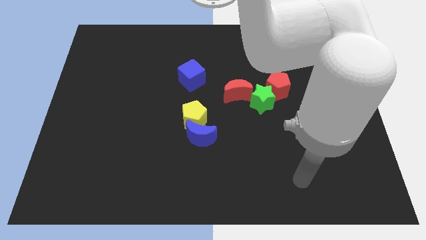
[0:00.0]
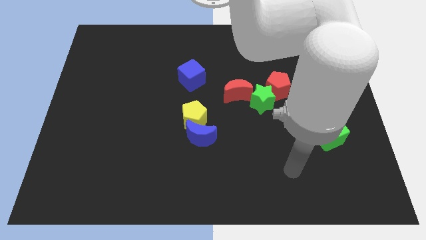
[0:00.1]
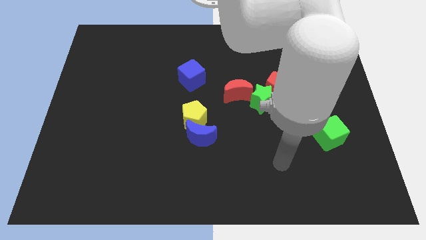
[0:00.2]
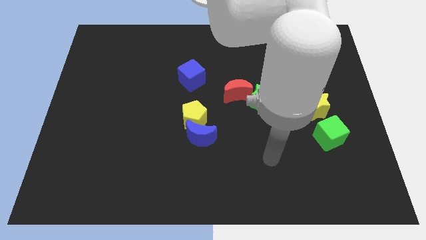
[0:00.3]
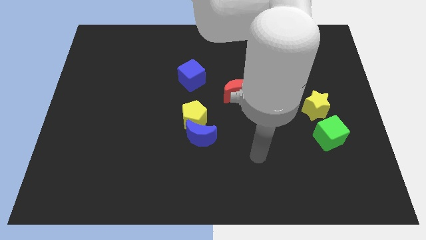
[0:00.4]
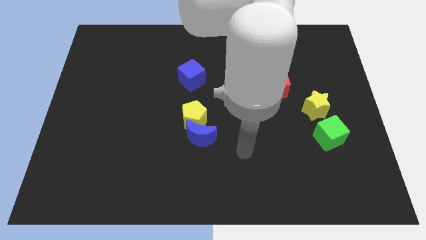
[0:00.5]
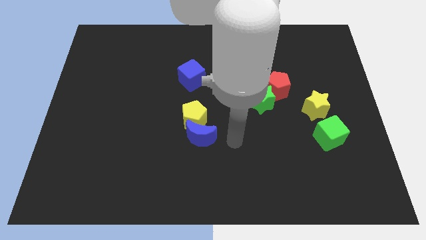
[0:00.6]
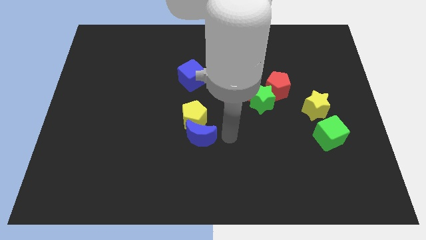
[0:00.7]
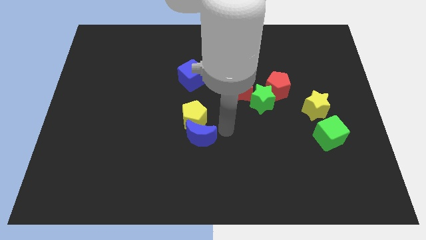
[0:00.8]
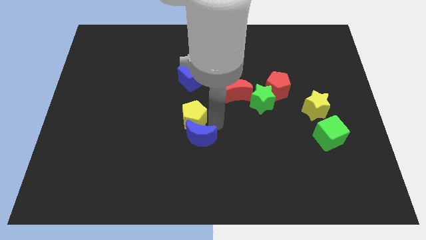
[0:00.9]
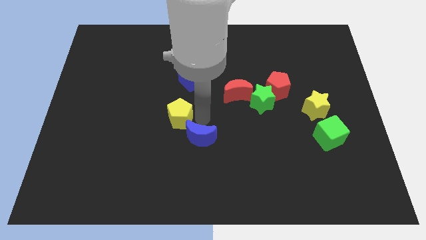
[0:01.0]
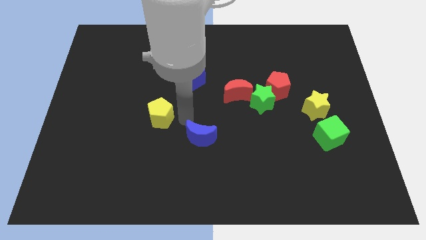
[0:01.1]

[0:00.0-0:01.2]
separate the blue moon from the yellow pentagon

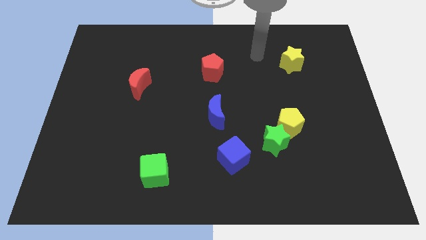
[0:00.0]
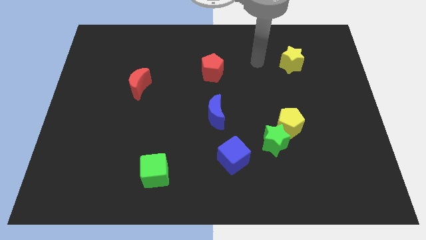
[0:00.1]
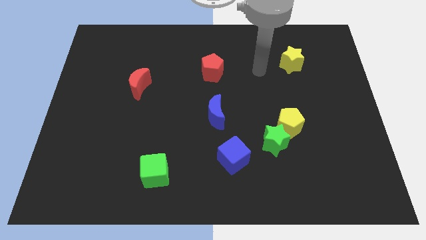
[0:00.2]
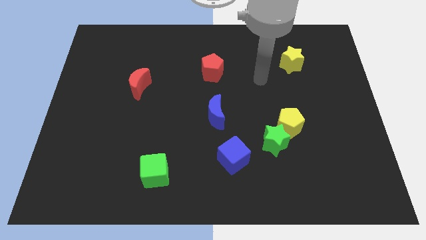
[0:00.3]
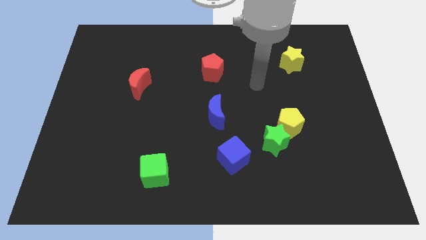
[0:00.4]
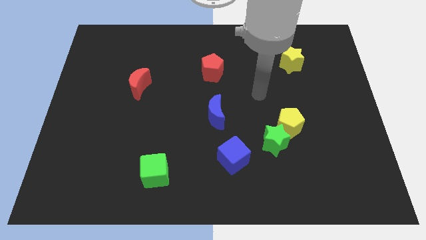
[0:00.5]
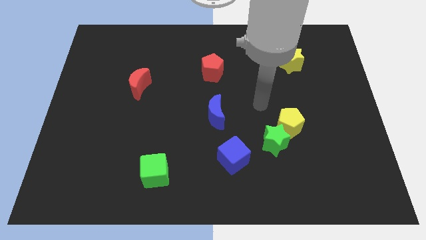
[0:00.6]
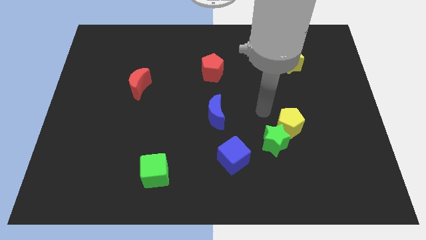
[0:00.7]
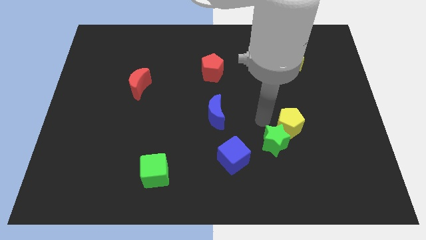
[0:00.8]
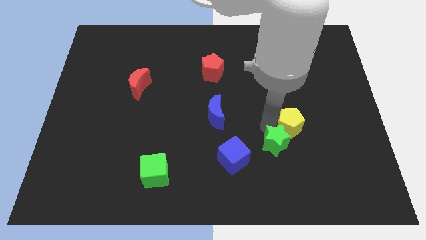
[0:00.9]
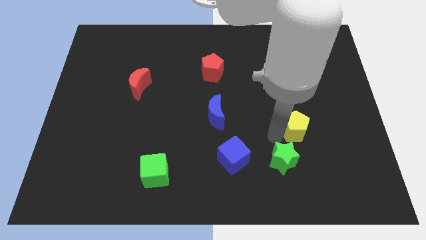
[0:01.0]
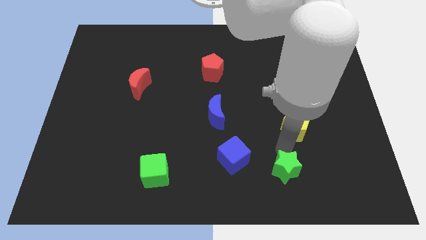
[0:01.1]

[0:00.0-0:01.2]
move the yellow pentagon away from the green star

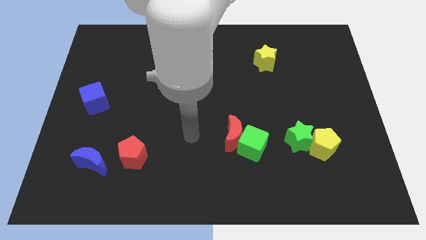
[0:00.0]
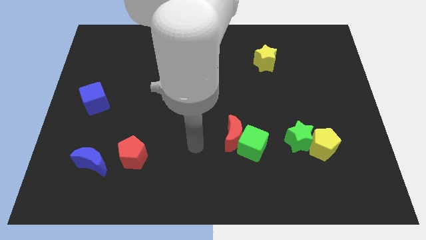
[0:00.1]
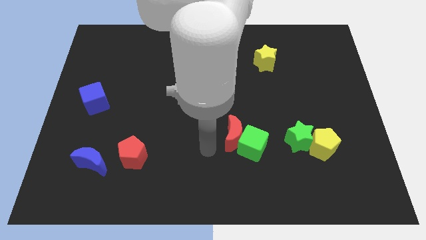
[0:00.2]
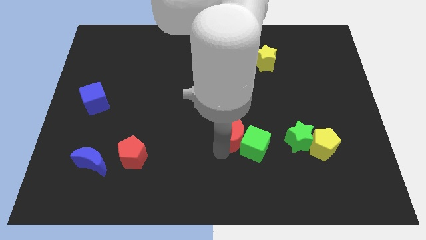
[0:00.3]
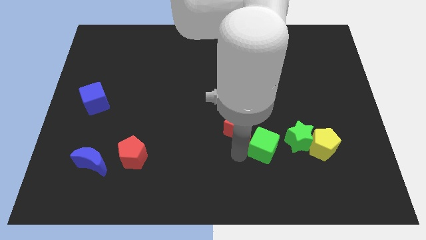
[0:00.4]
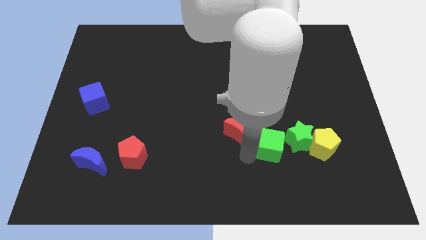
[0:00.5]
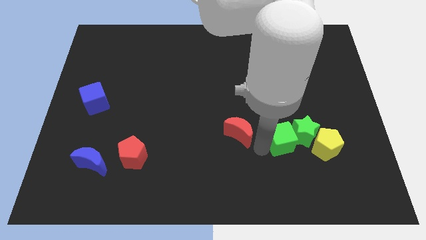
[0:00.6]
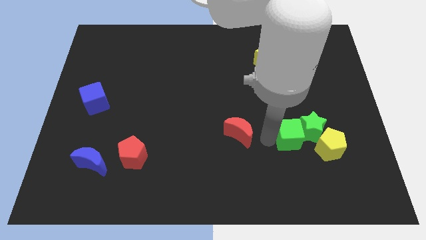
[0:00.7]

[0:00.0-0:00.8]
move the red moon away from the green cube

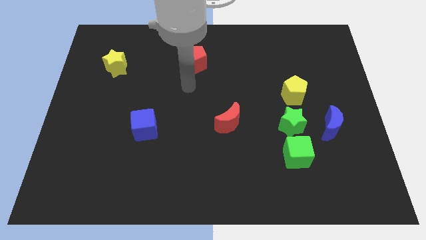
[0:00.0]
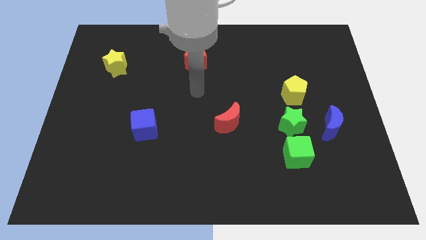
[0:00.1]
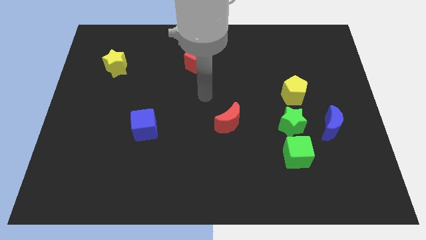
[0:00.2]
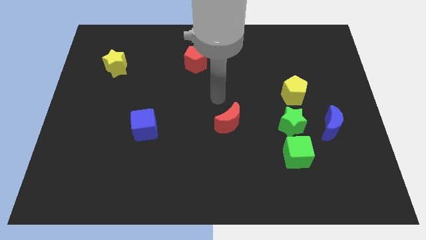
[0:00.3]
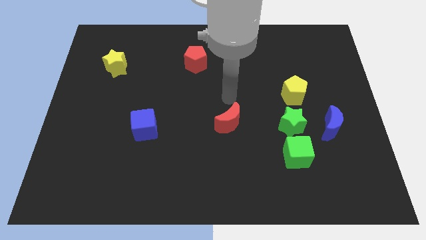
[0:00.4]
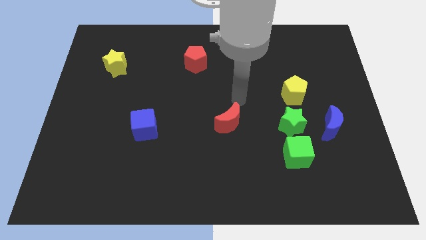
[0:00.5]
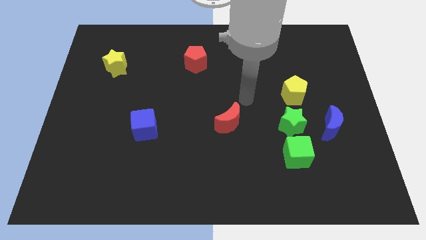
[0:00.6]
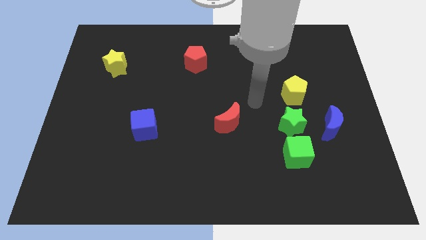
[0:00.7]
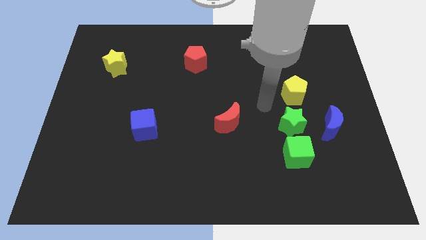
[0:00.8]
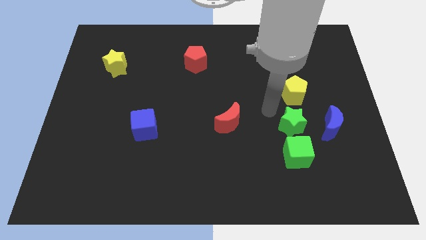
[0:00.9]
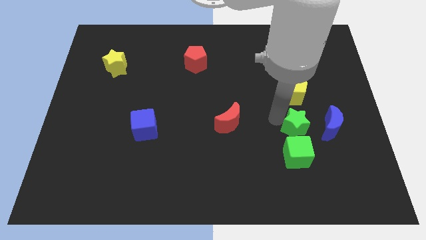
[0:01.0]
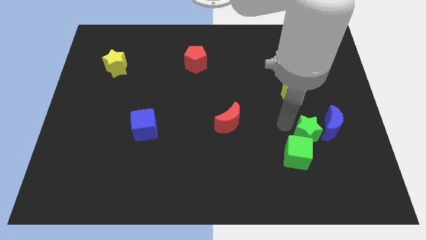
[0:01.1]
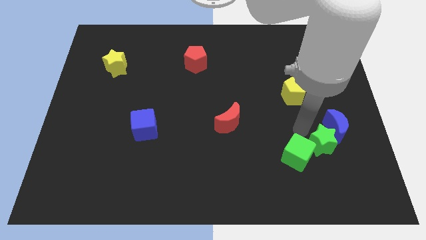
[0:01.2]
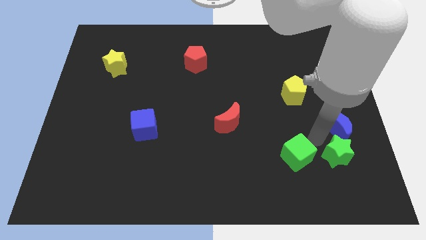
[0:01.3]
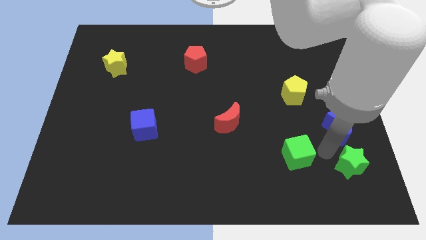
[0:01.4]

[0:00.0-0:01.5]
move the green cube away from the green star

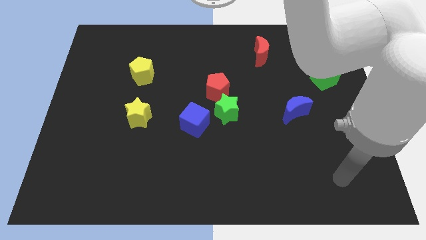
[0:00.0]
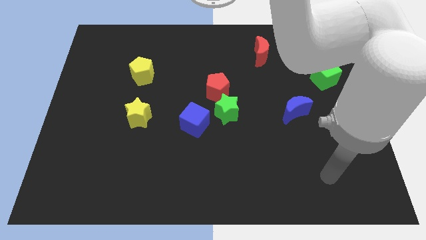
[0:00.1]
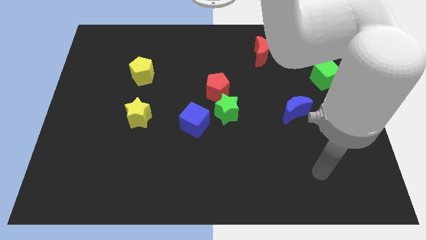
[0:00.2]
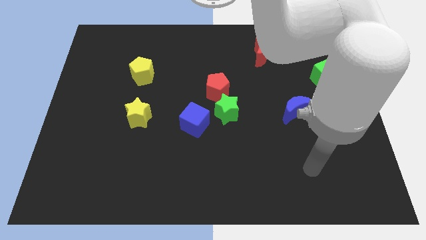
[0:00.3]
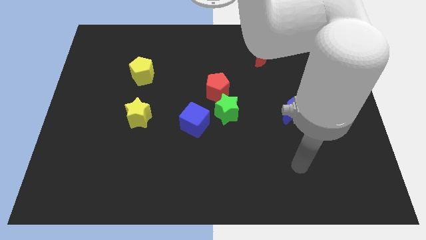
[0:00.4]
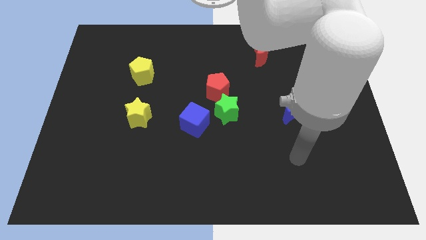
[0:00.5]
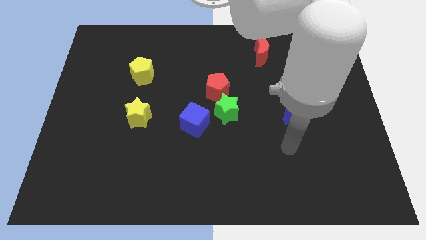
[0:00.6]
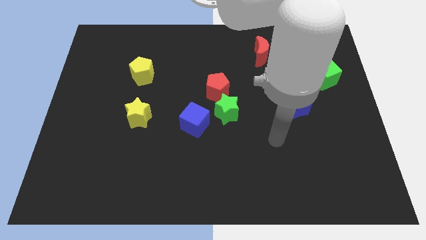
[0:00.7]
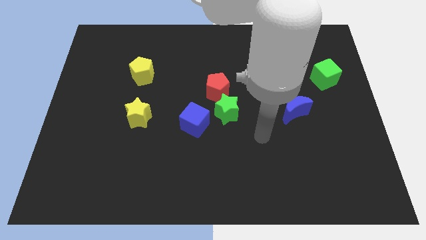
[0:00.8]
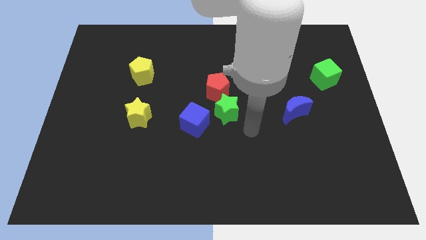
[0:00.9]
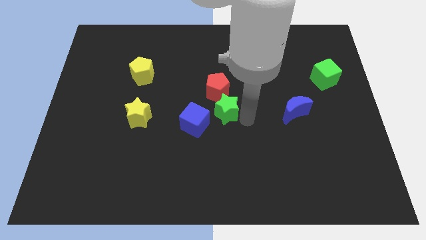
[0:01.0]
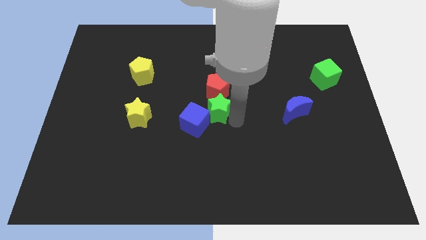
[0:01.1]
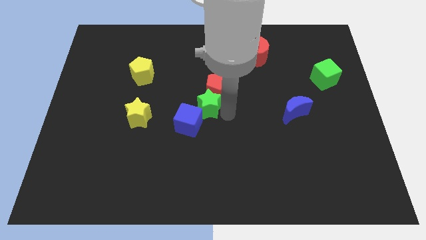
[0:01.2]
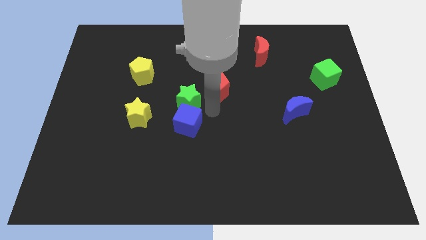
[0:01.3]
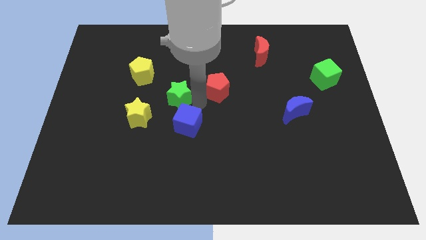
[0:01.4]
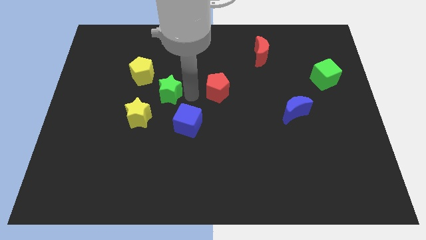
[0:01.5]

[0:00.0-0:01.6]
pull the red pentagon apart from the green star

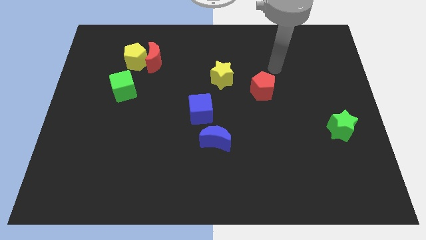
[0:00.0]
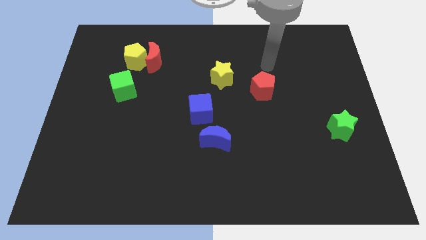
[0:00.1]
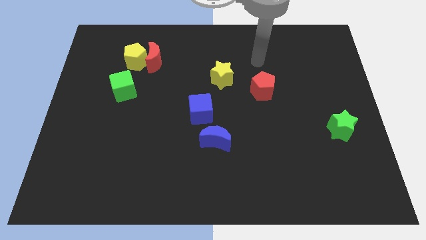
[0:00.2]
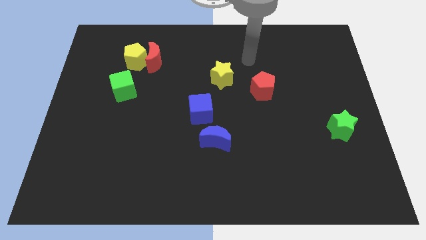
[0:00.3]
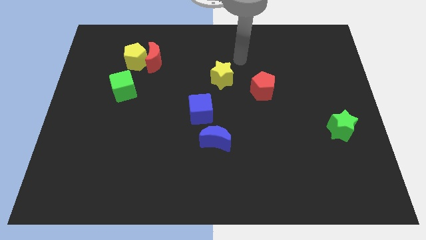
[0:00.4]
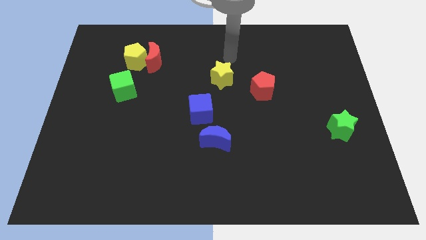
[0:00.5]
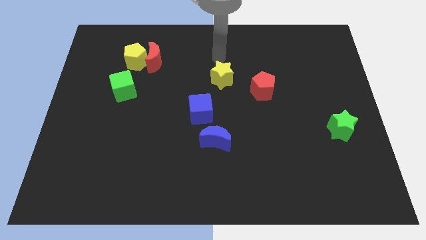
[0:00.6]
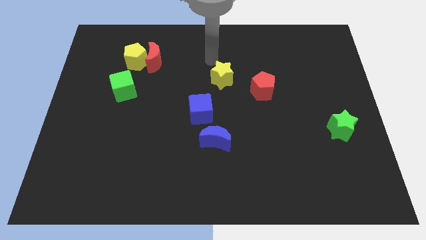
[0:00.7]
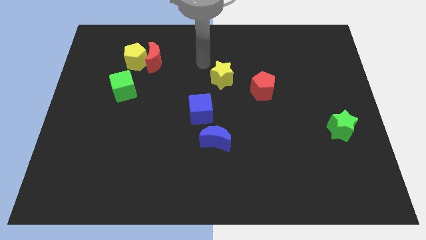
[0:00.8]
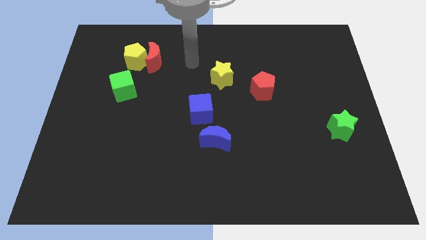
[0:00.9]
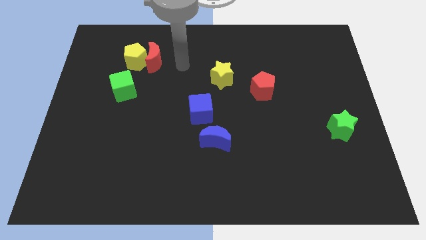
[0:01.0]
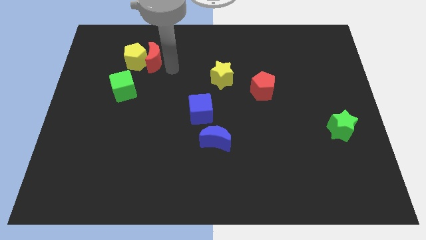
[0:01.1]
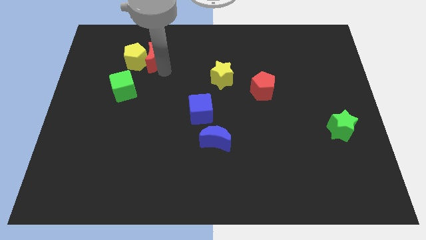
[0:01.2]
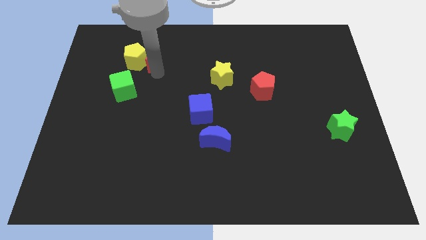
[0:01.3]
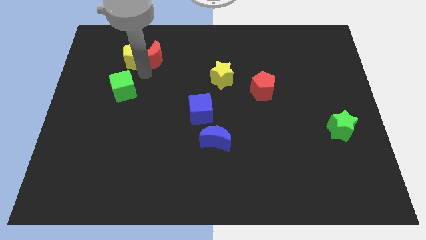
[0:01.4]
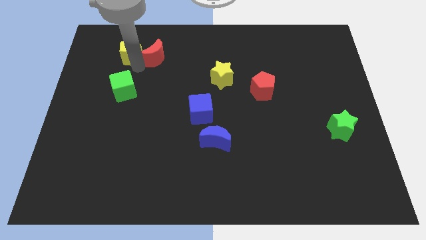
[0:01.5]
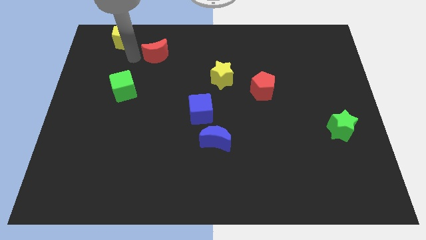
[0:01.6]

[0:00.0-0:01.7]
pull the red moon apart from the yellow pentagon

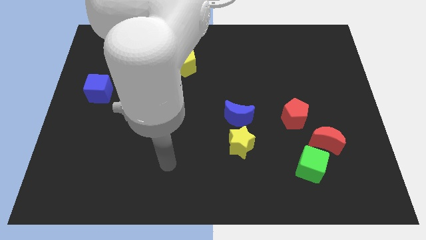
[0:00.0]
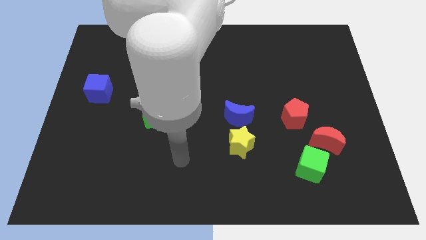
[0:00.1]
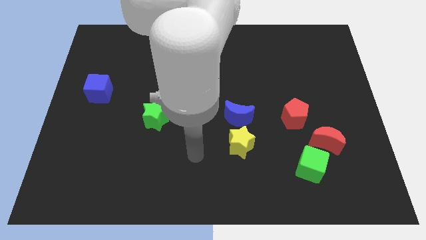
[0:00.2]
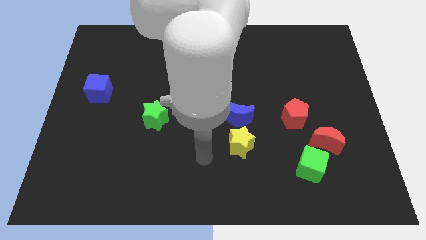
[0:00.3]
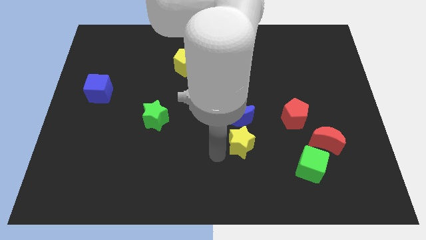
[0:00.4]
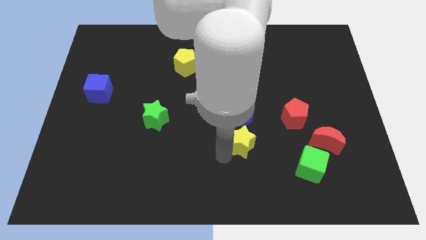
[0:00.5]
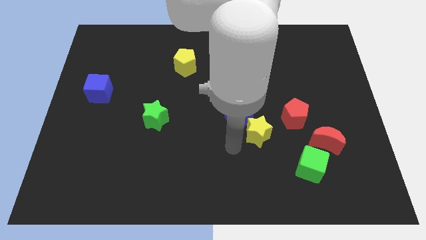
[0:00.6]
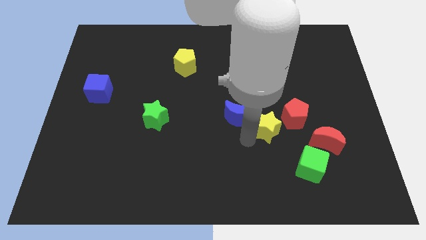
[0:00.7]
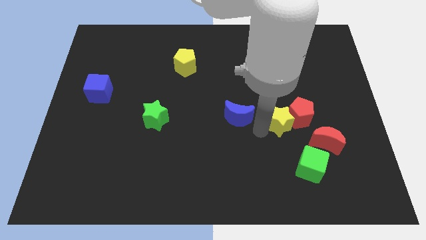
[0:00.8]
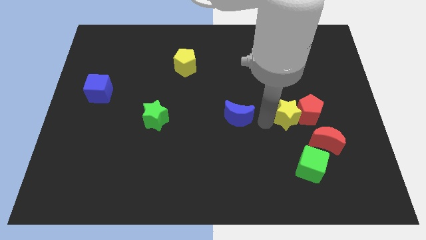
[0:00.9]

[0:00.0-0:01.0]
move the blue moon away from the yellow star

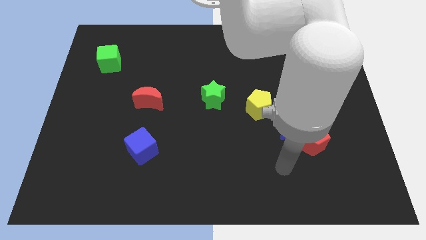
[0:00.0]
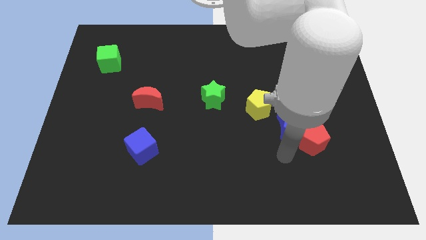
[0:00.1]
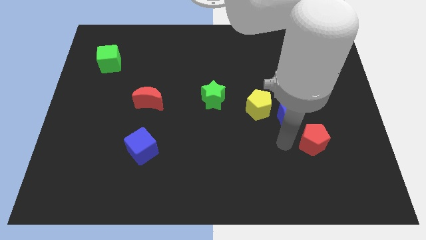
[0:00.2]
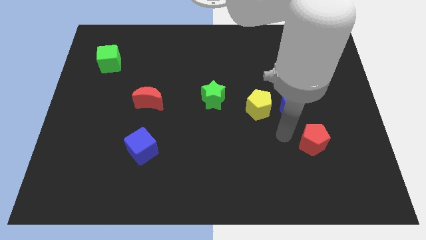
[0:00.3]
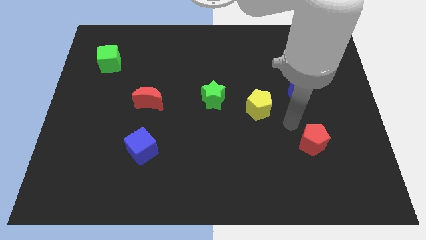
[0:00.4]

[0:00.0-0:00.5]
separate the red pentagon from the blue moon
